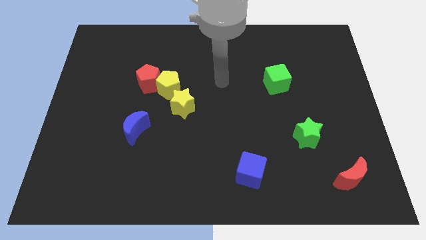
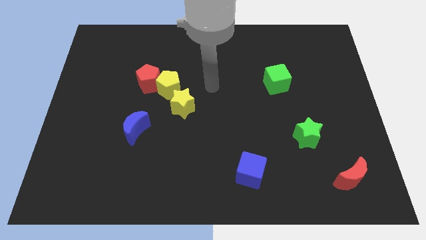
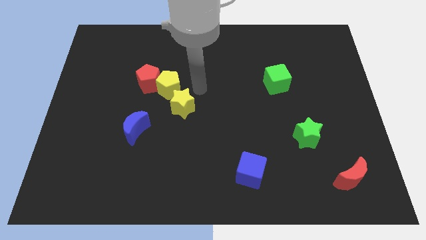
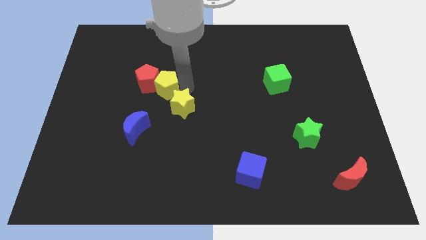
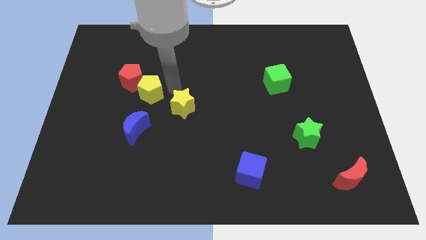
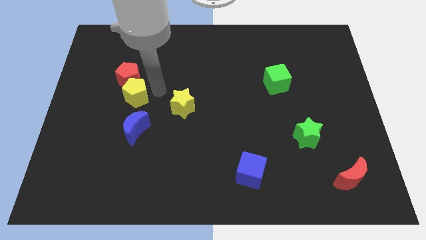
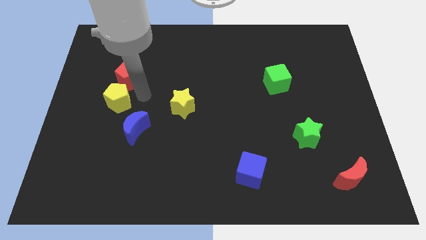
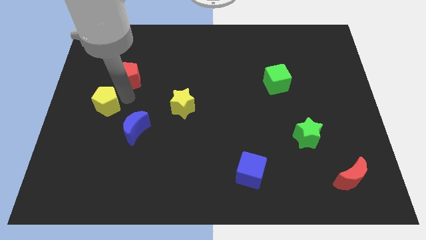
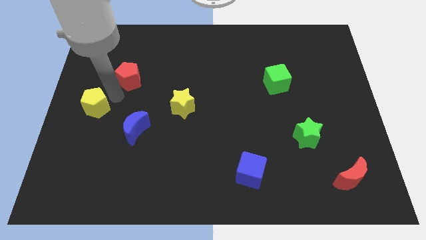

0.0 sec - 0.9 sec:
separate the red pentagon from the yellow pentagon

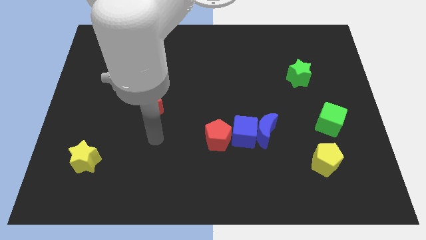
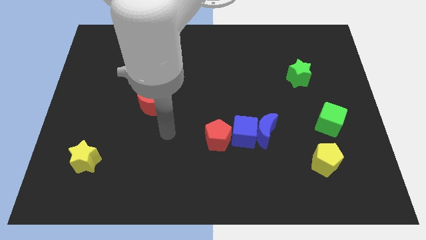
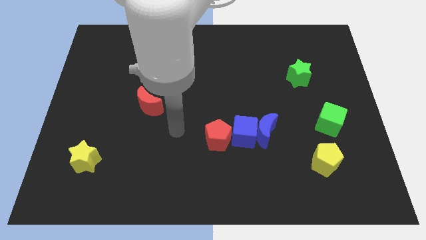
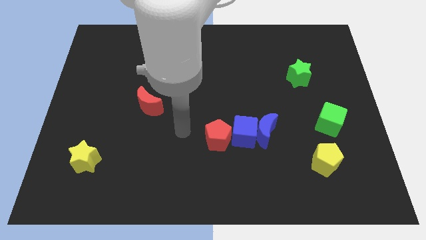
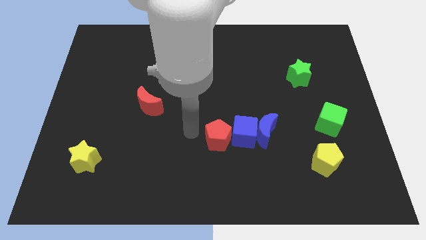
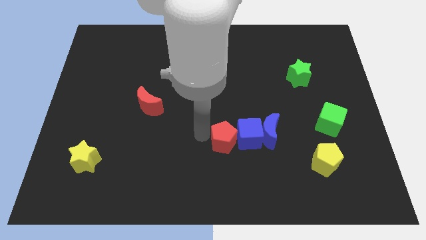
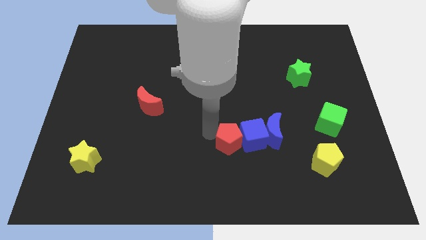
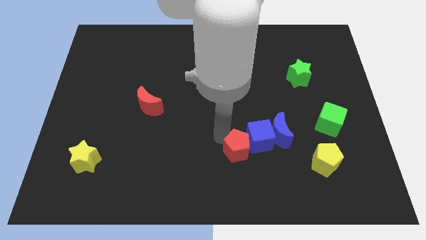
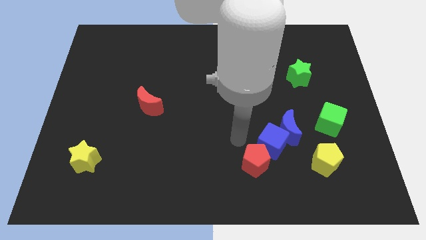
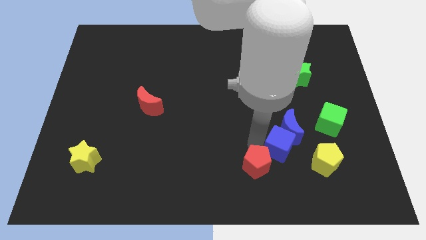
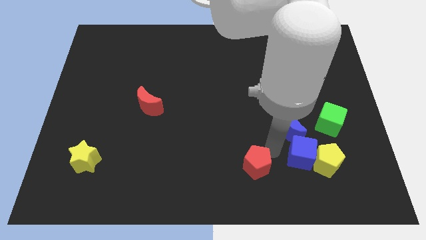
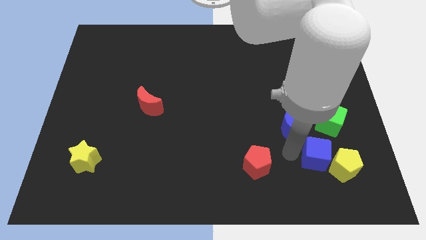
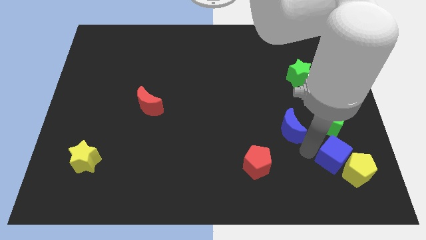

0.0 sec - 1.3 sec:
separate the blue moon from the blue cube

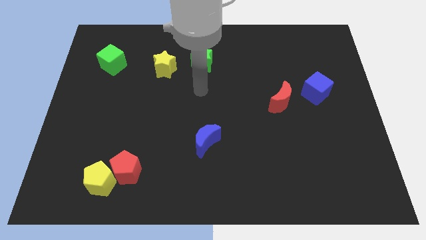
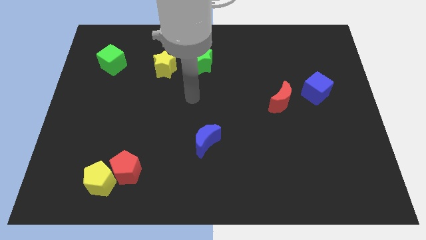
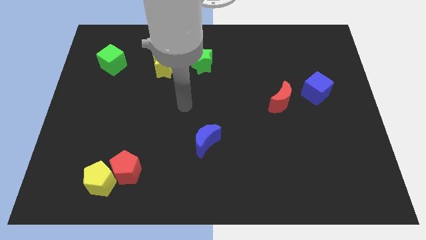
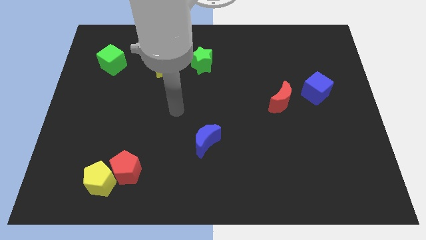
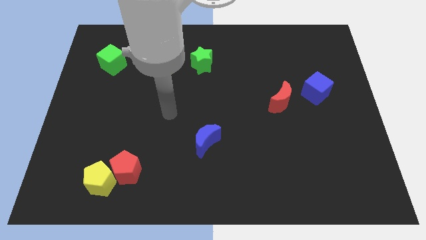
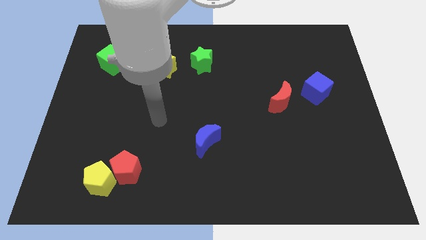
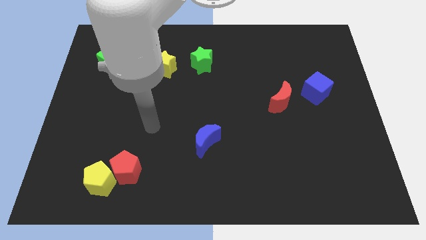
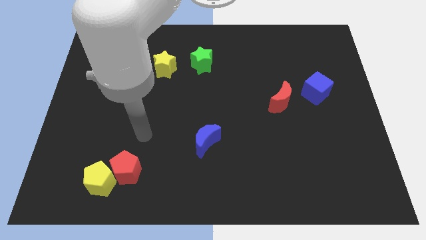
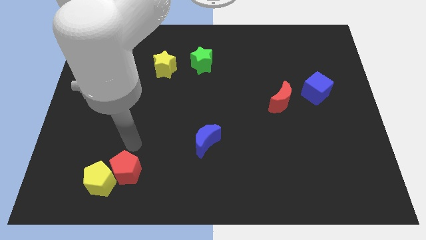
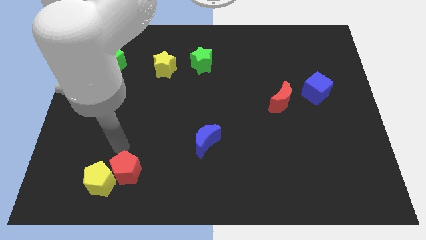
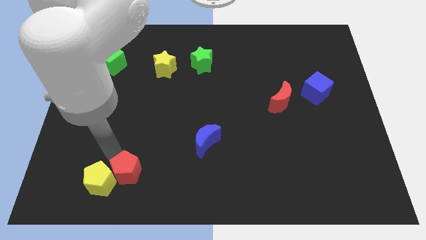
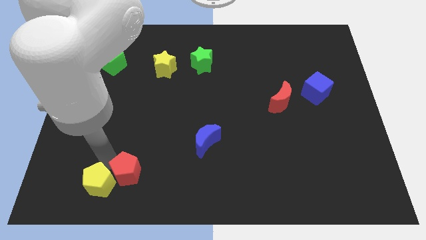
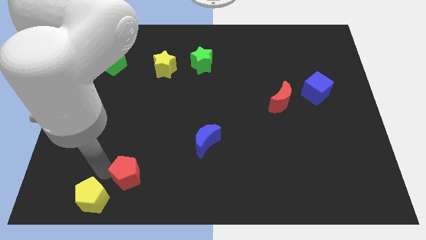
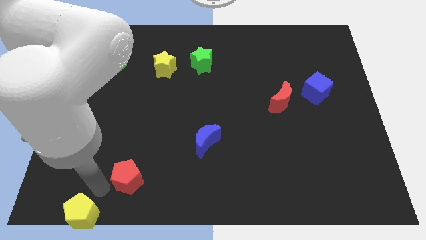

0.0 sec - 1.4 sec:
move the red pentagon away from the yellow pentagon

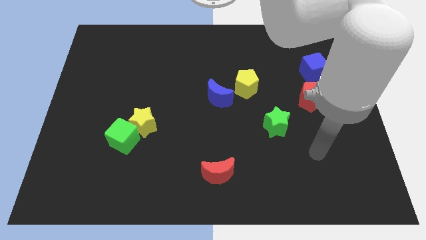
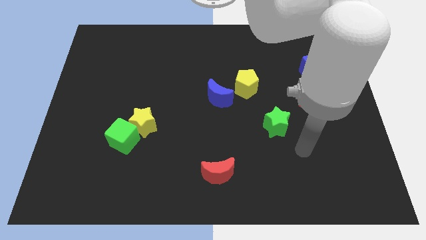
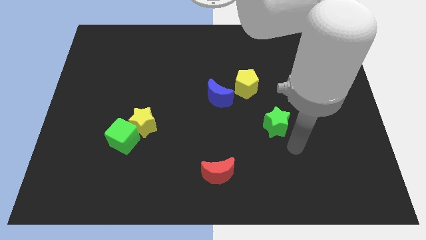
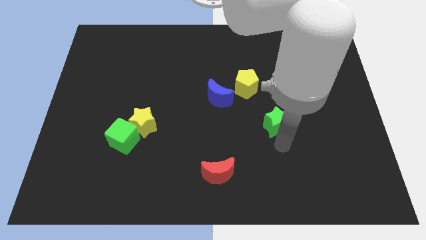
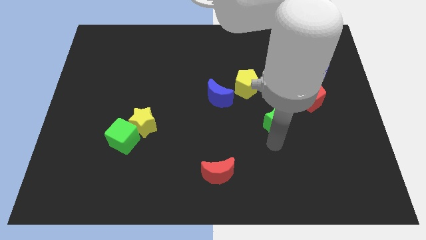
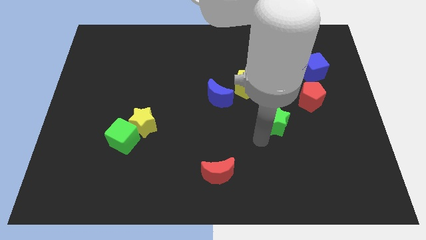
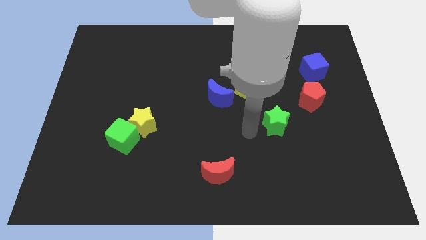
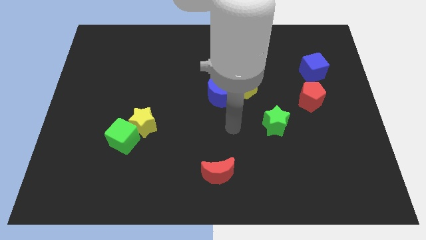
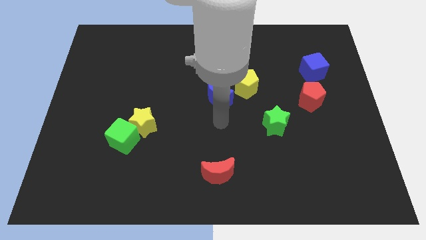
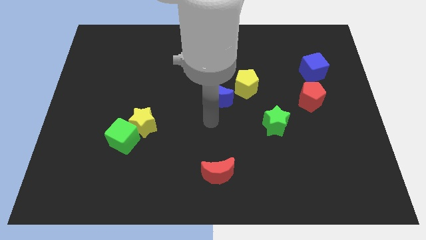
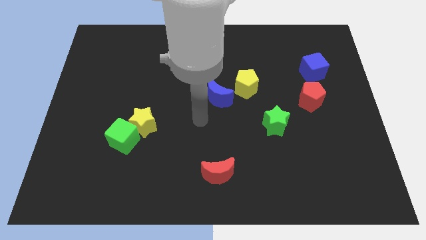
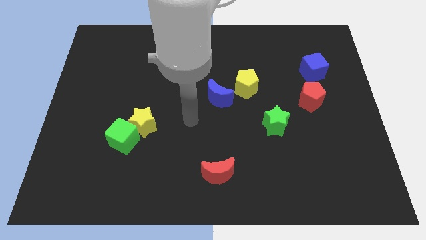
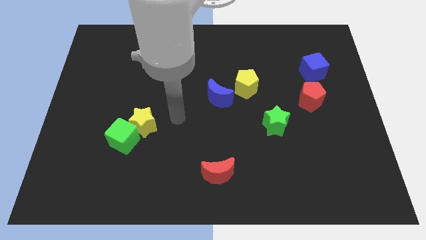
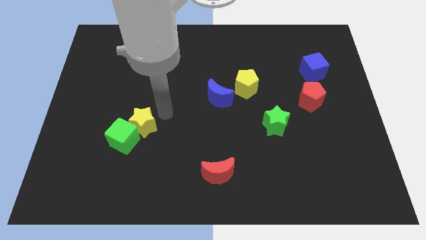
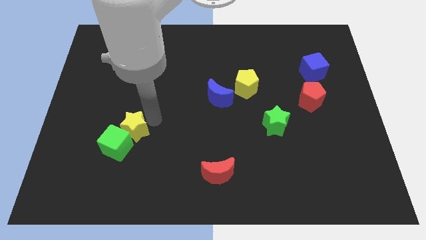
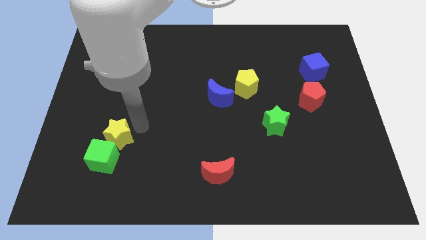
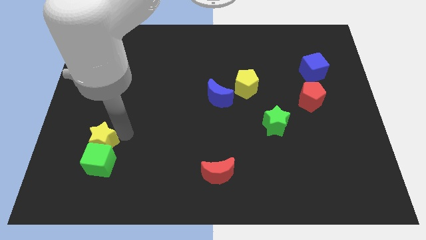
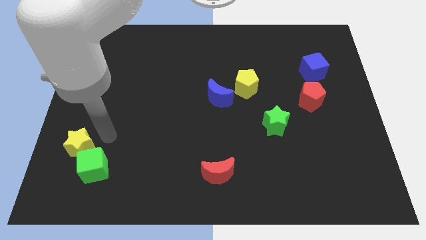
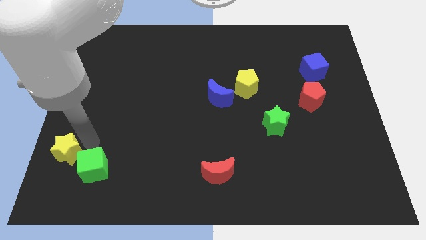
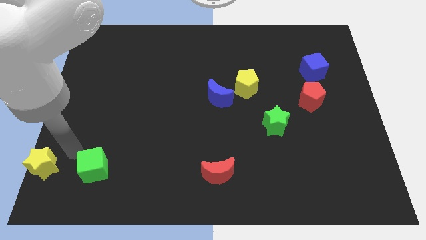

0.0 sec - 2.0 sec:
move the green cube away from the yellow star

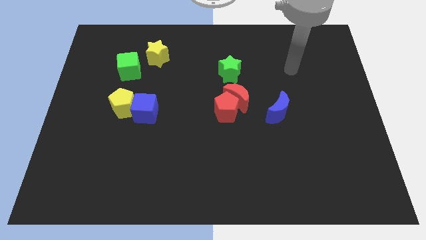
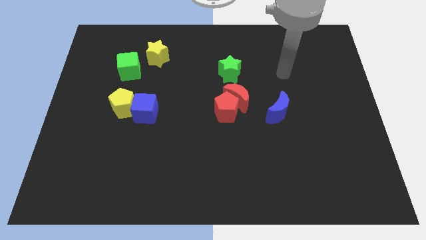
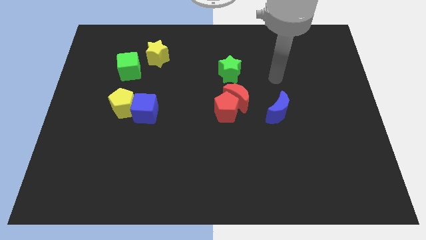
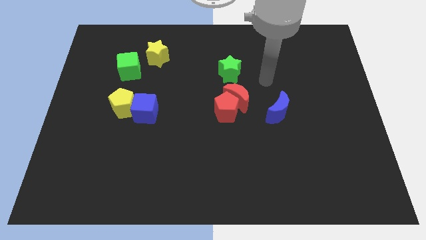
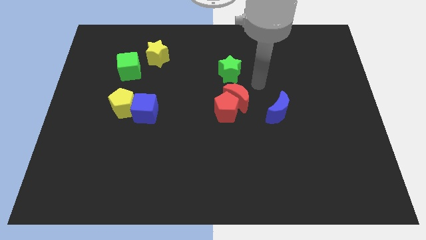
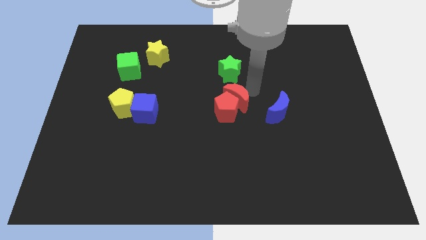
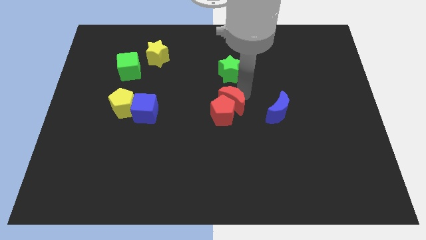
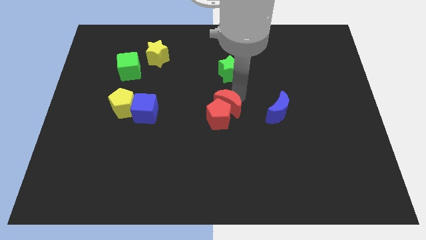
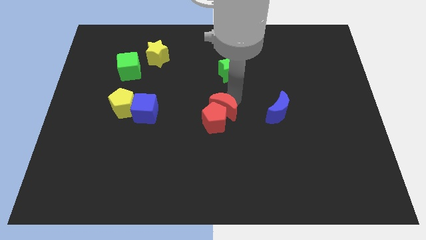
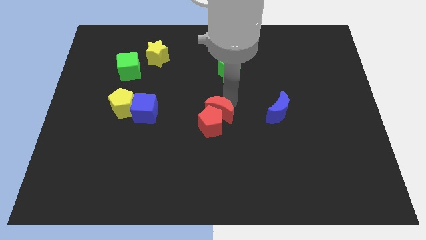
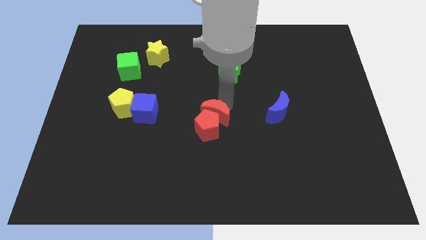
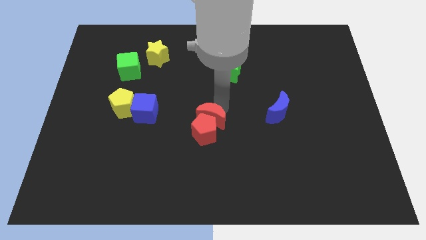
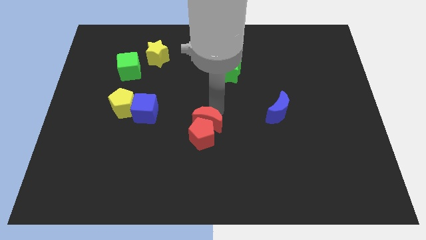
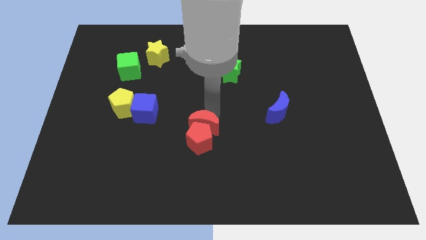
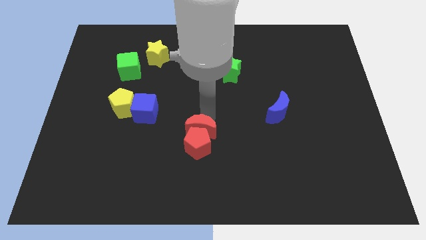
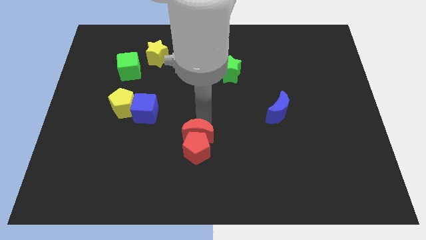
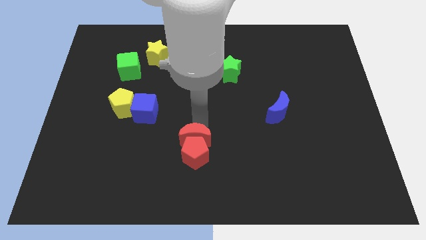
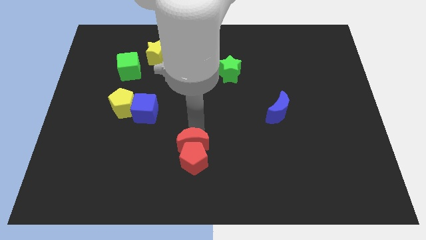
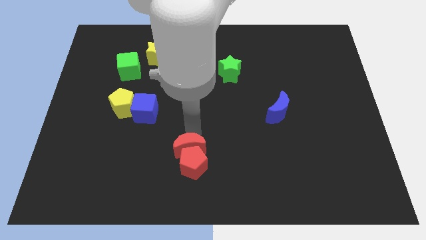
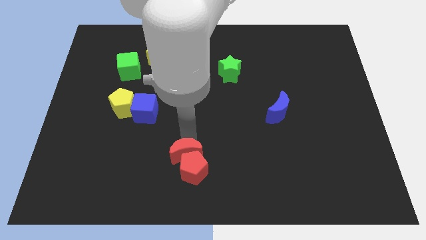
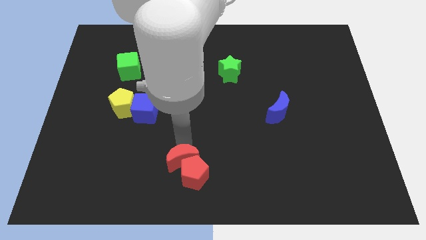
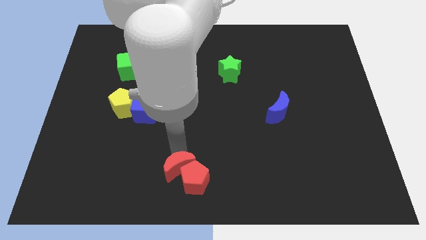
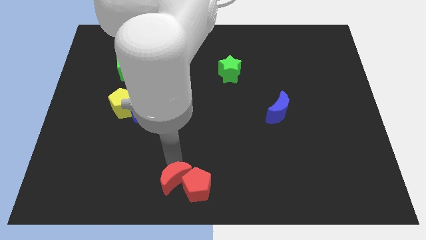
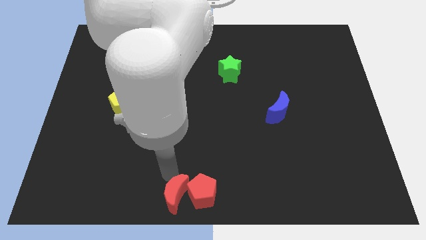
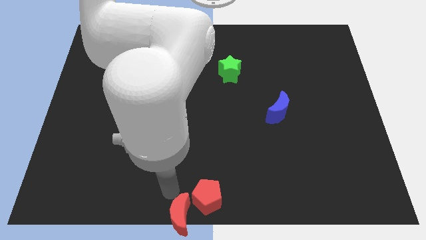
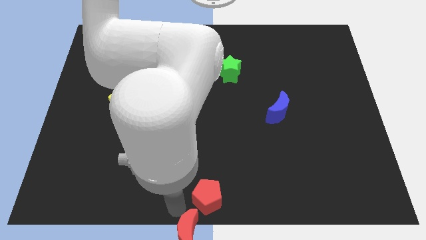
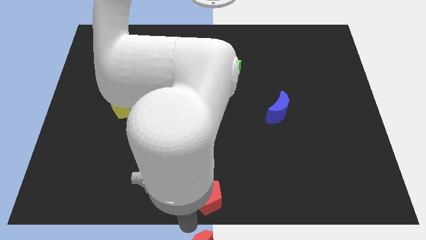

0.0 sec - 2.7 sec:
pull the red pentagon apart from the red moon

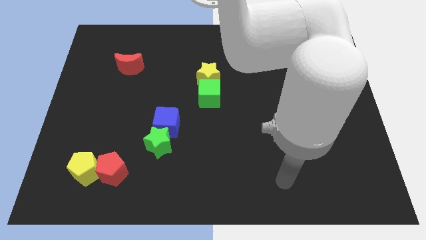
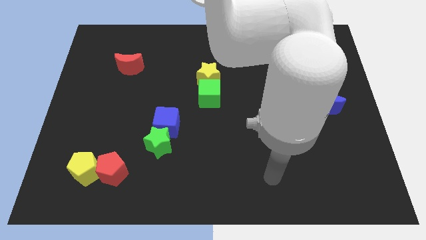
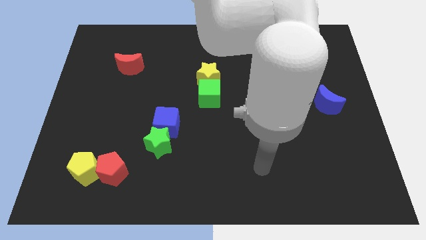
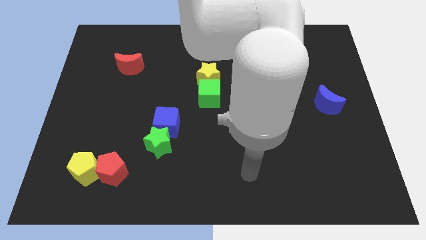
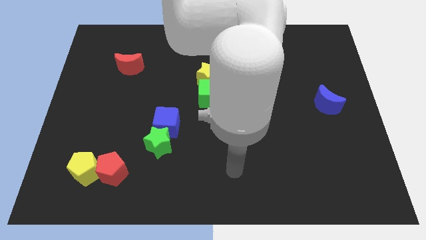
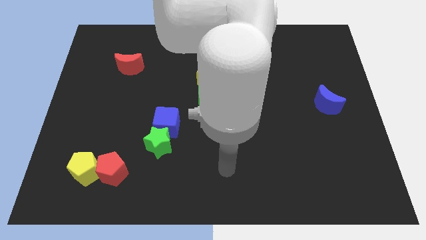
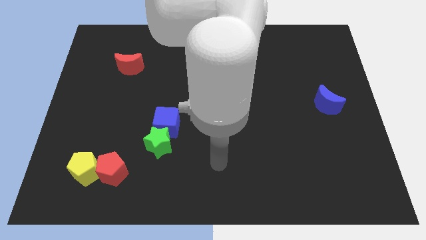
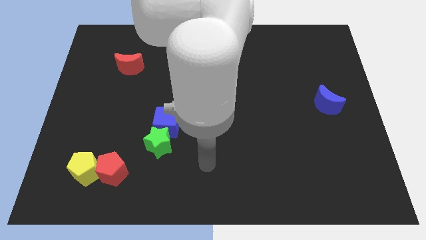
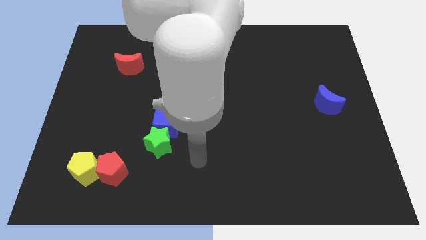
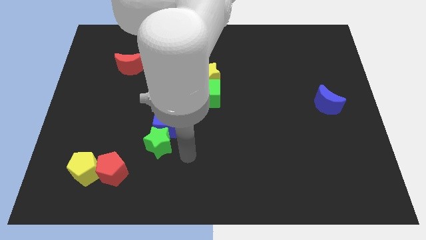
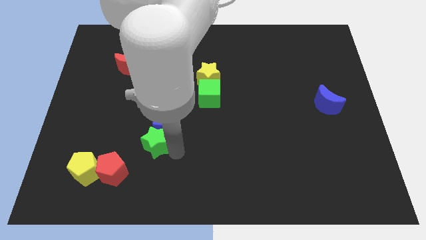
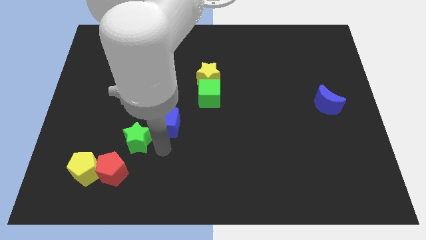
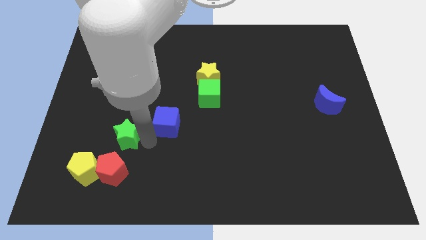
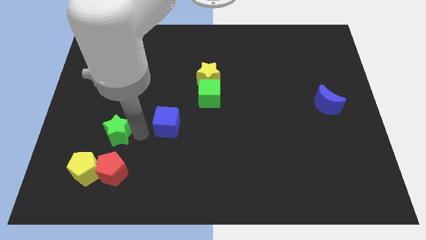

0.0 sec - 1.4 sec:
move the blue cube away from the green star
